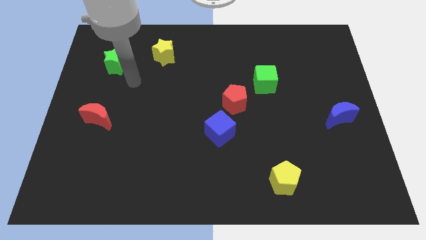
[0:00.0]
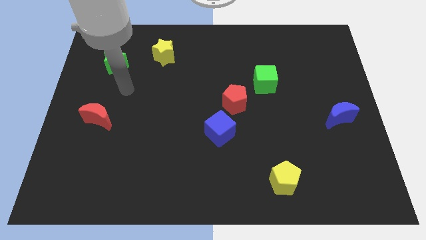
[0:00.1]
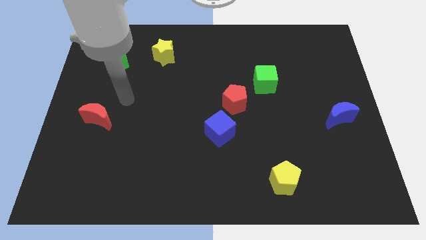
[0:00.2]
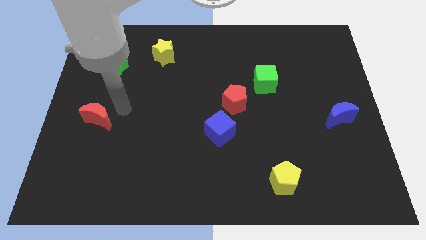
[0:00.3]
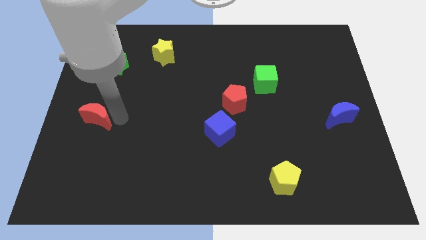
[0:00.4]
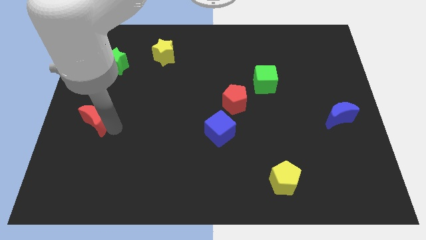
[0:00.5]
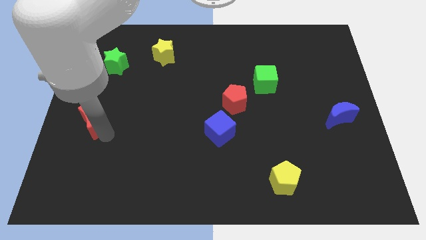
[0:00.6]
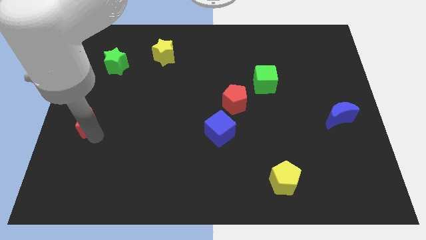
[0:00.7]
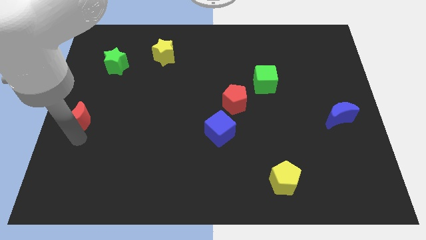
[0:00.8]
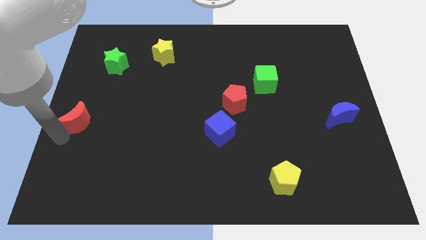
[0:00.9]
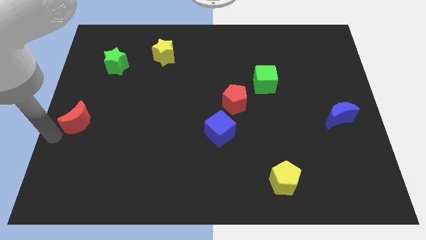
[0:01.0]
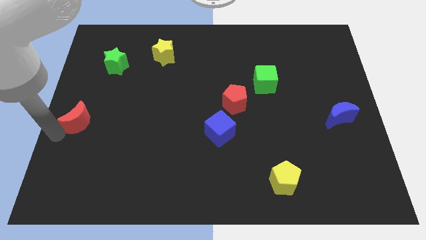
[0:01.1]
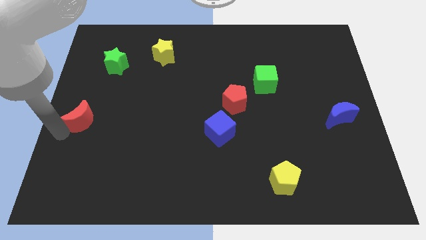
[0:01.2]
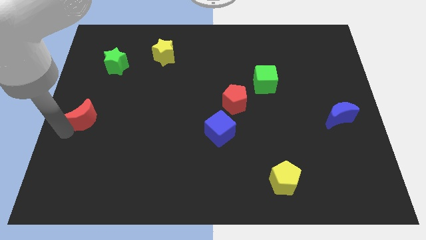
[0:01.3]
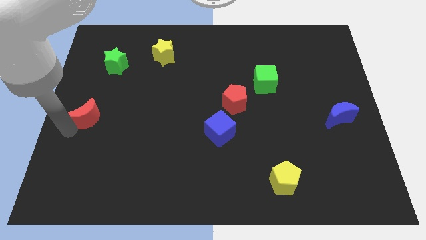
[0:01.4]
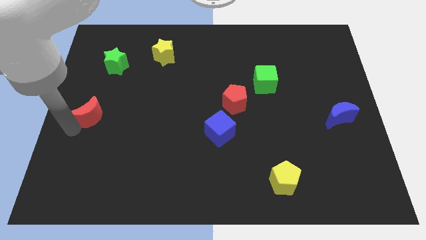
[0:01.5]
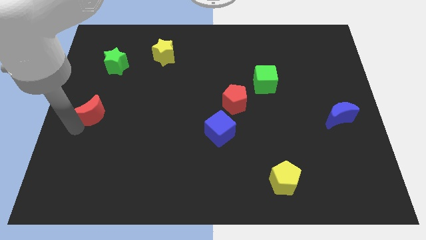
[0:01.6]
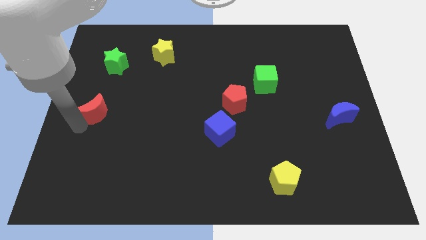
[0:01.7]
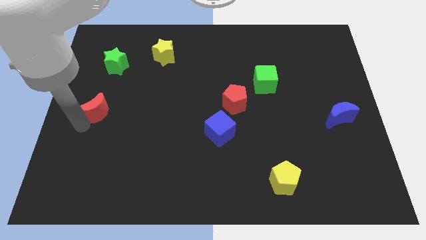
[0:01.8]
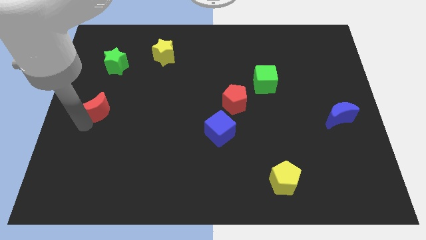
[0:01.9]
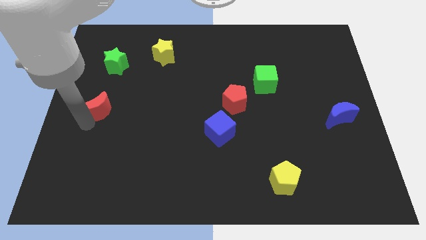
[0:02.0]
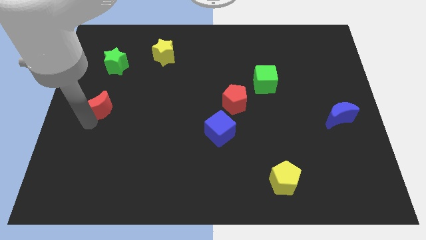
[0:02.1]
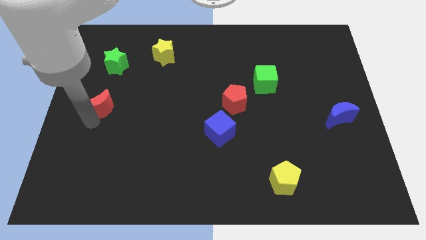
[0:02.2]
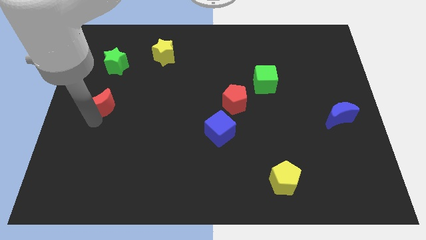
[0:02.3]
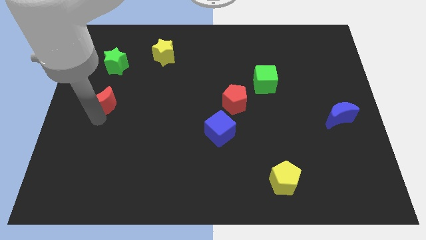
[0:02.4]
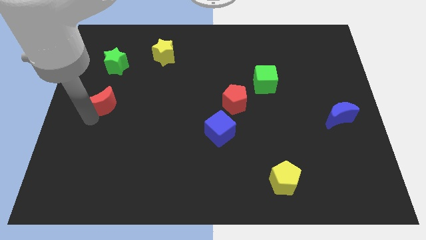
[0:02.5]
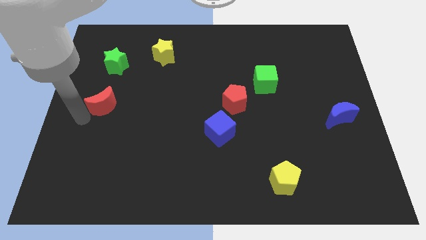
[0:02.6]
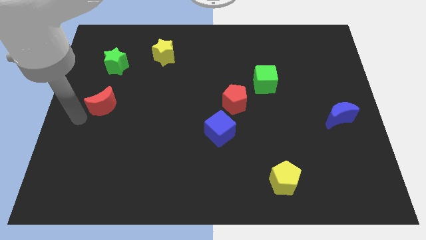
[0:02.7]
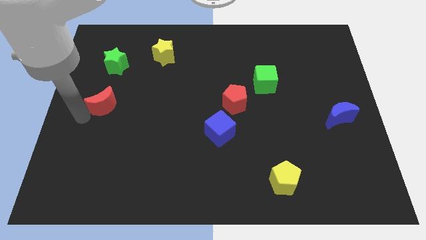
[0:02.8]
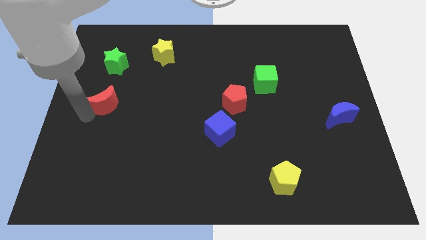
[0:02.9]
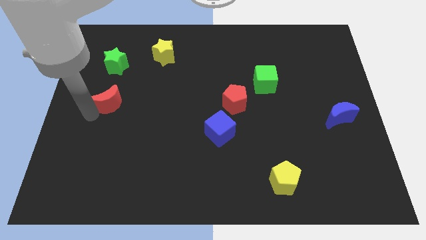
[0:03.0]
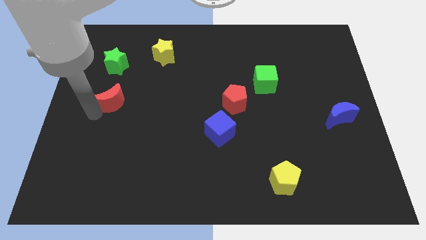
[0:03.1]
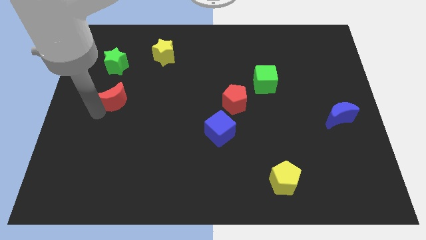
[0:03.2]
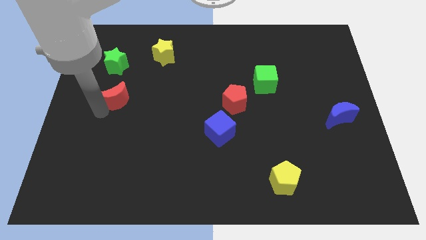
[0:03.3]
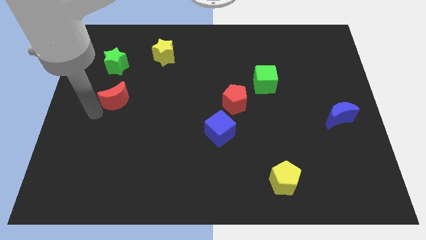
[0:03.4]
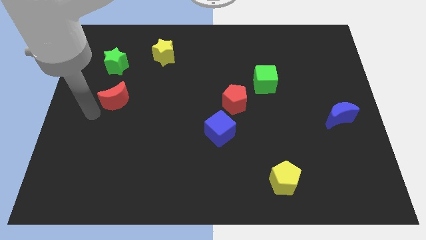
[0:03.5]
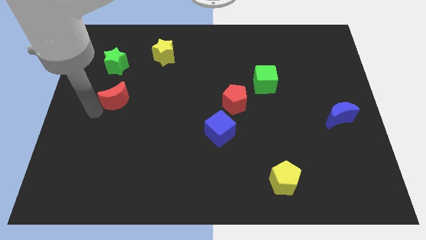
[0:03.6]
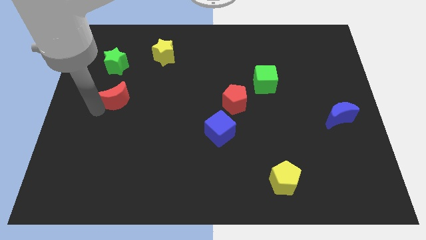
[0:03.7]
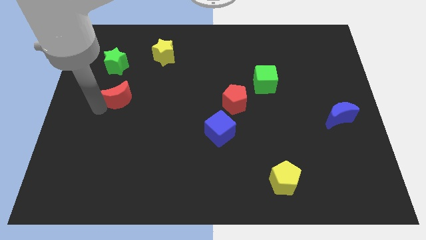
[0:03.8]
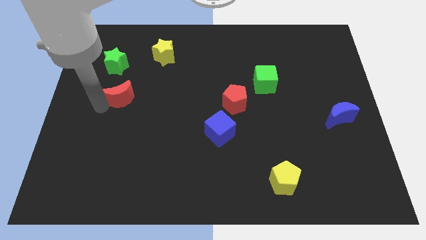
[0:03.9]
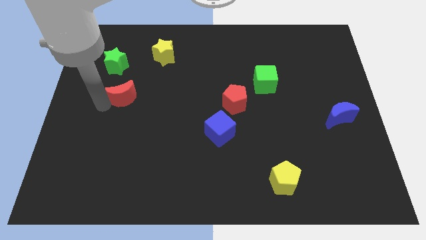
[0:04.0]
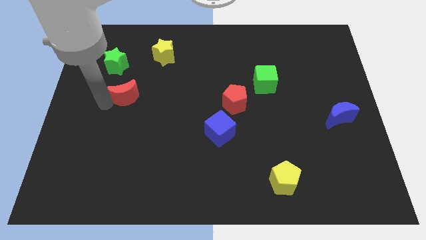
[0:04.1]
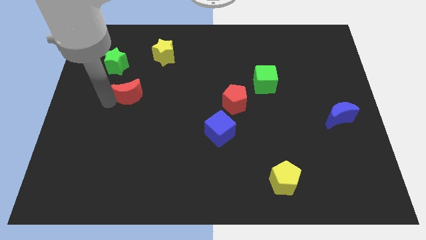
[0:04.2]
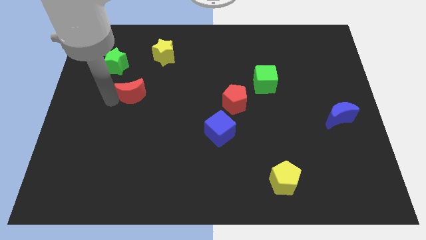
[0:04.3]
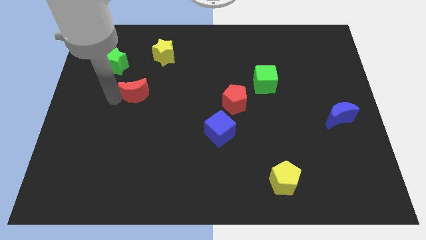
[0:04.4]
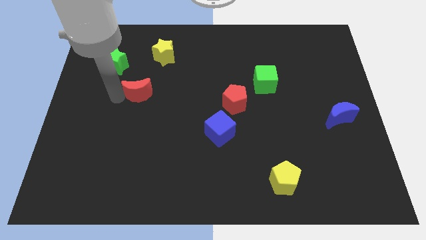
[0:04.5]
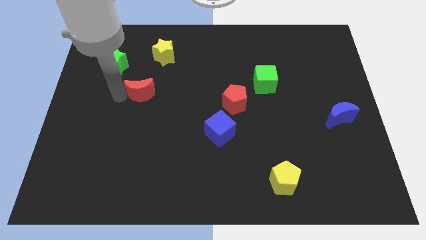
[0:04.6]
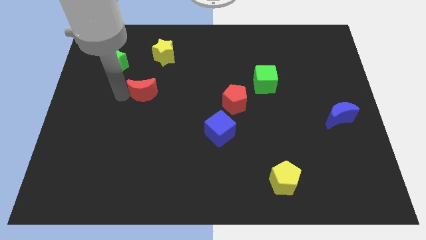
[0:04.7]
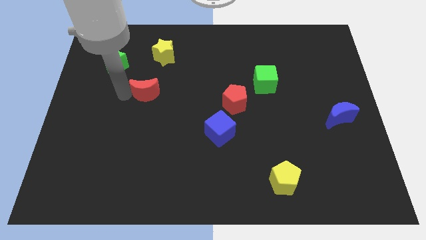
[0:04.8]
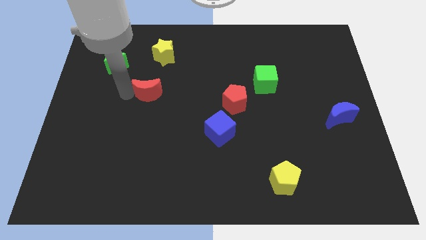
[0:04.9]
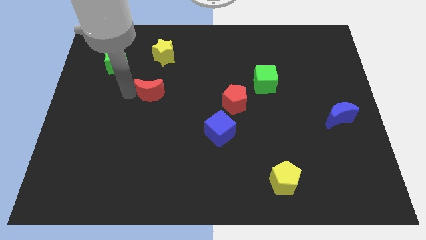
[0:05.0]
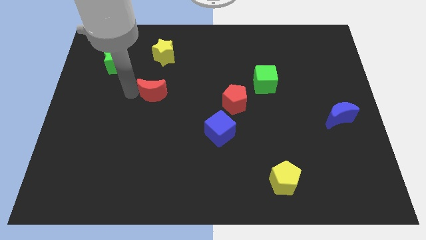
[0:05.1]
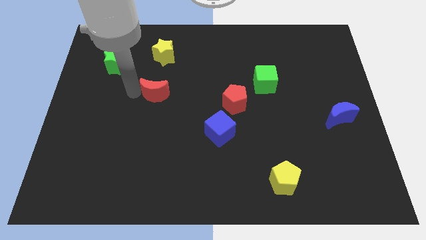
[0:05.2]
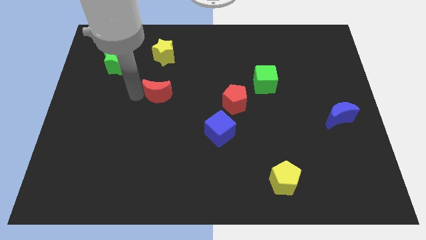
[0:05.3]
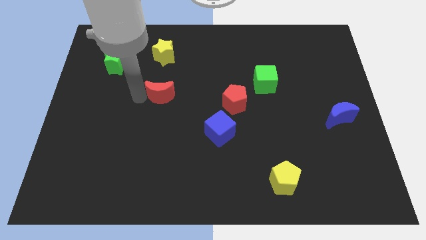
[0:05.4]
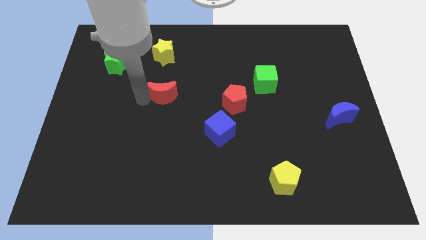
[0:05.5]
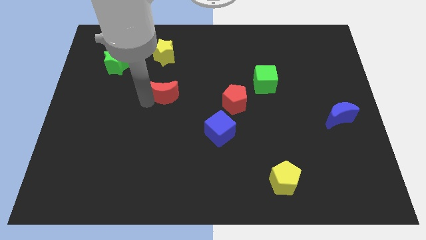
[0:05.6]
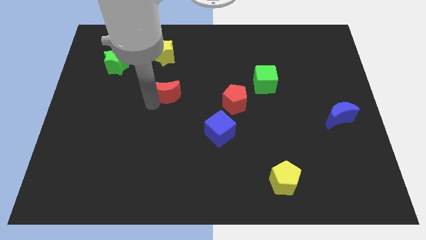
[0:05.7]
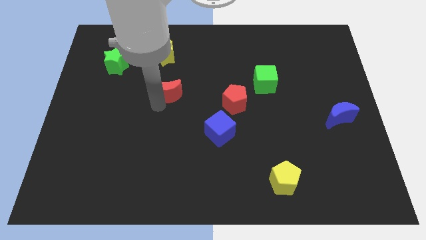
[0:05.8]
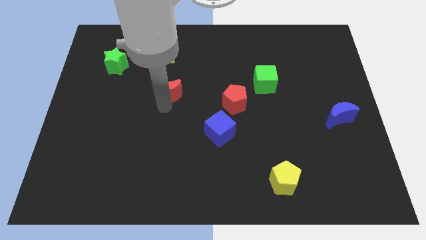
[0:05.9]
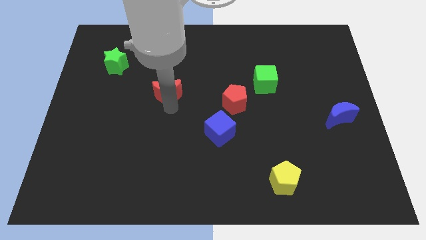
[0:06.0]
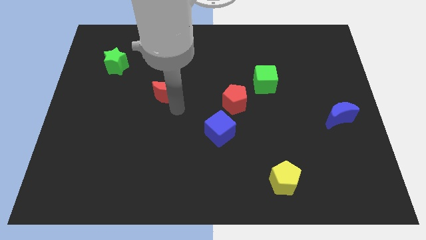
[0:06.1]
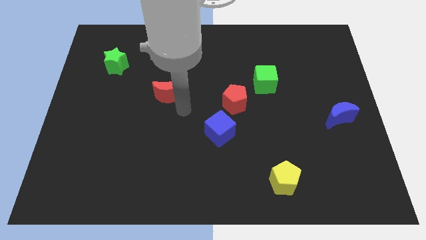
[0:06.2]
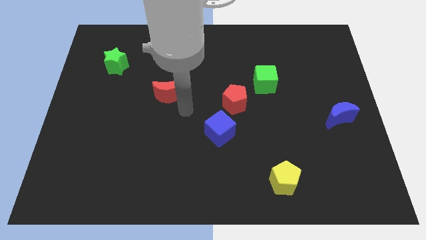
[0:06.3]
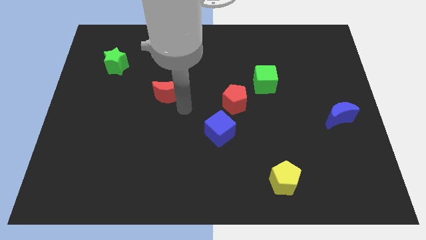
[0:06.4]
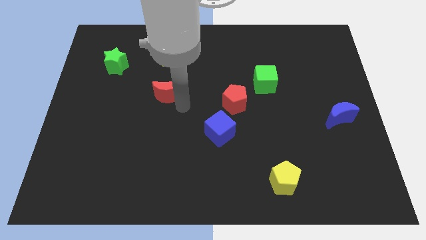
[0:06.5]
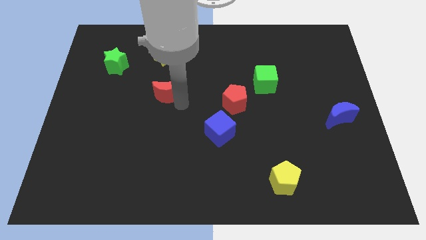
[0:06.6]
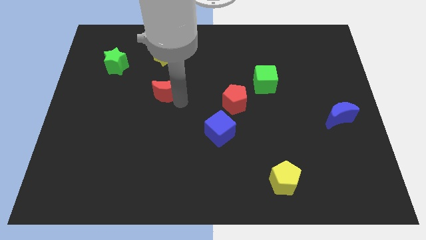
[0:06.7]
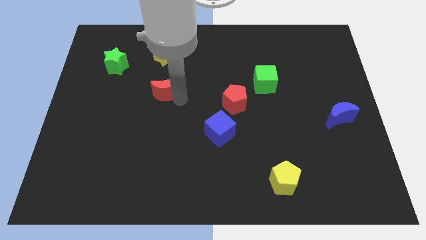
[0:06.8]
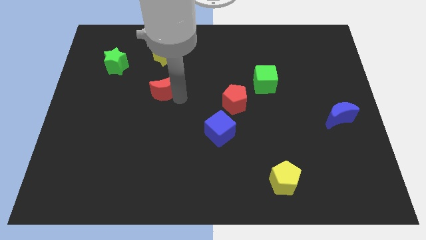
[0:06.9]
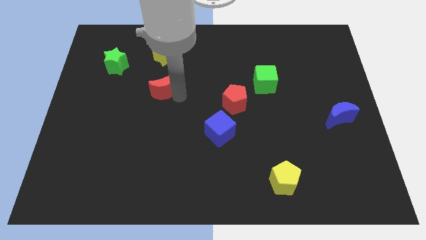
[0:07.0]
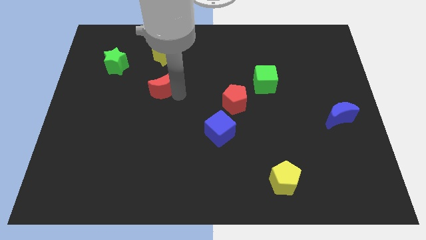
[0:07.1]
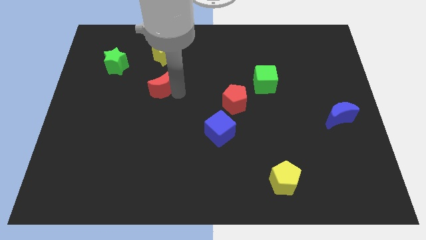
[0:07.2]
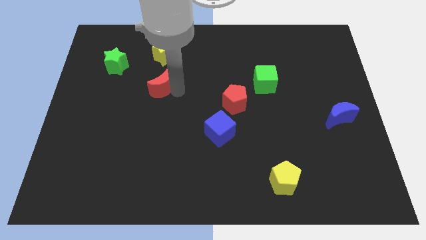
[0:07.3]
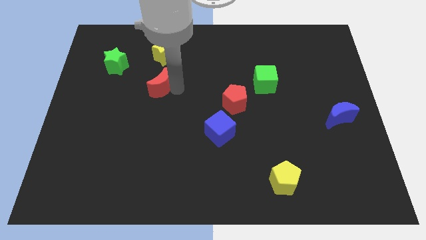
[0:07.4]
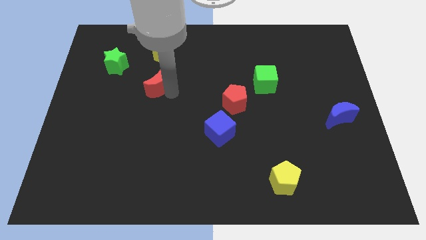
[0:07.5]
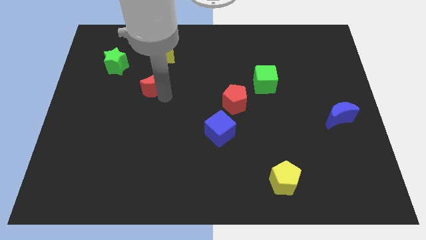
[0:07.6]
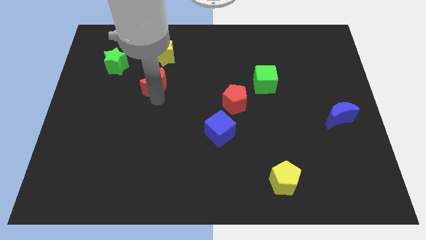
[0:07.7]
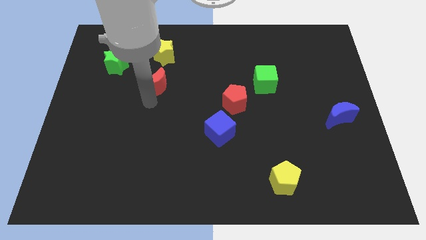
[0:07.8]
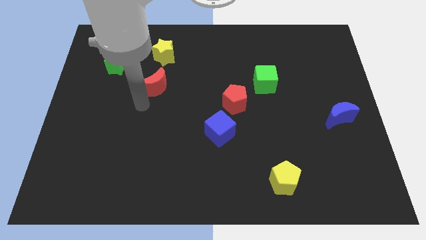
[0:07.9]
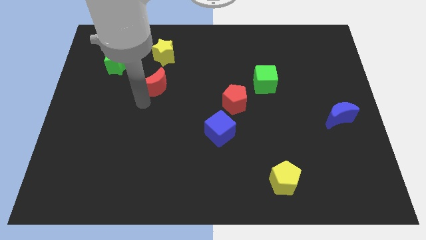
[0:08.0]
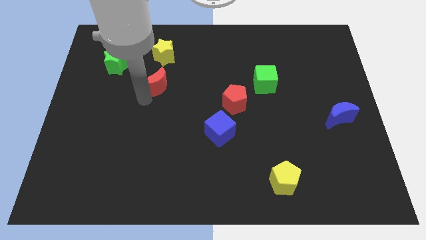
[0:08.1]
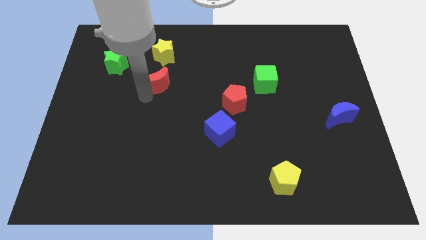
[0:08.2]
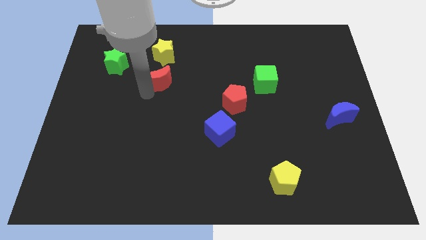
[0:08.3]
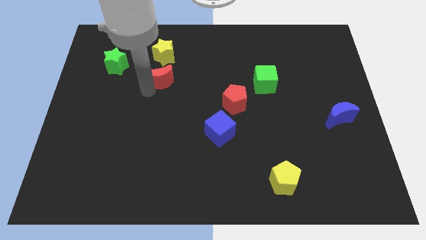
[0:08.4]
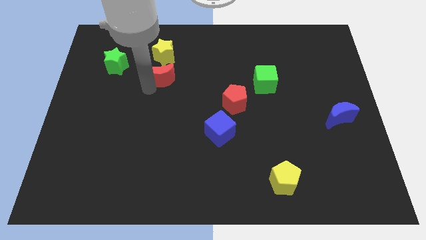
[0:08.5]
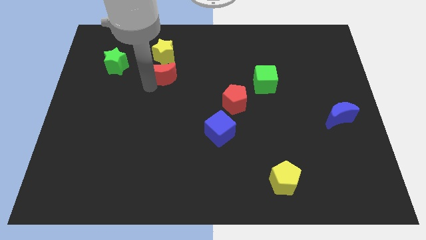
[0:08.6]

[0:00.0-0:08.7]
put the red moon right of the green star
